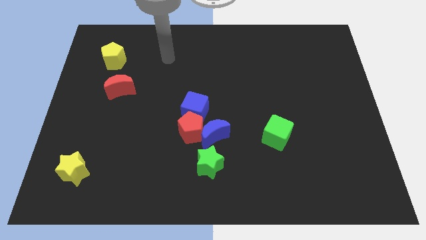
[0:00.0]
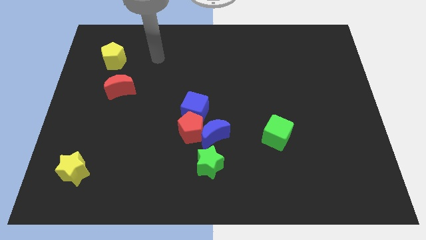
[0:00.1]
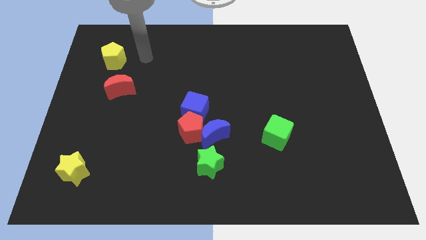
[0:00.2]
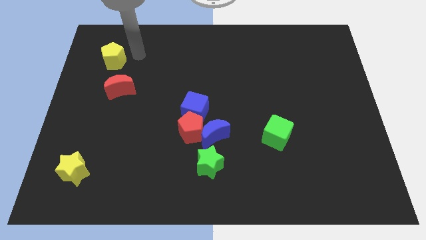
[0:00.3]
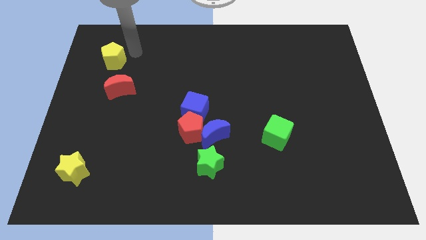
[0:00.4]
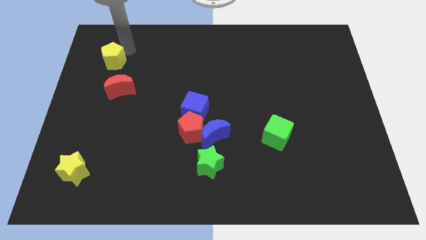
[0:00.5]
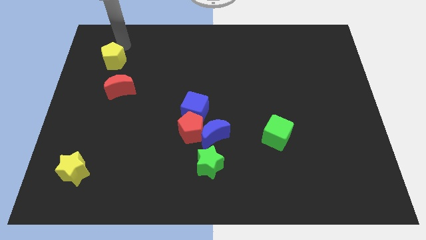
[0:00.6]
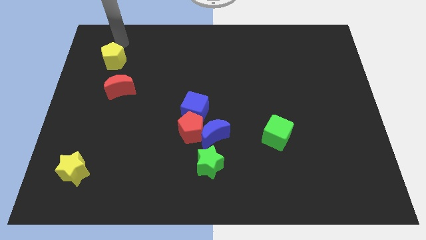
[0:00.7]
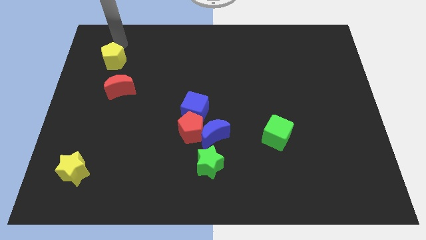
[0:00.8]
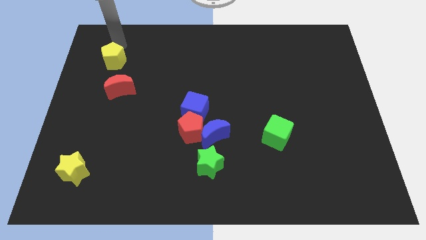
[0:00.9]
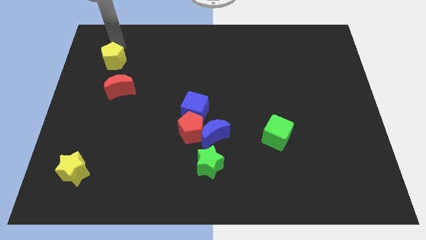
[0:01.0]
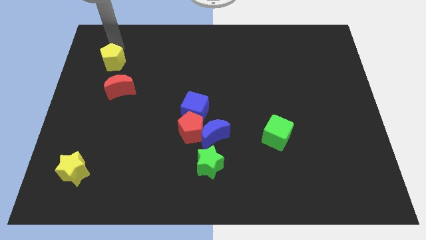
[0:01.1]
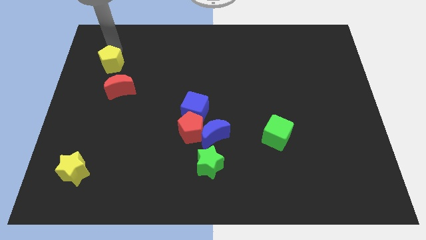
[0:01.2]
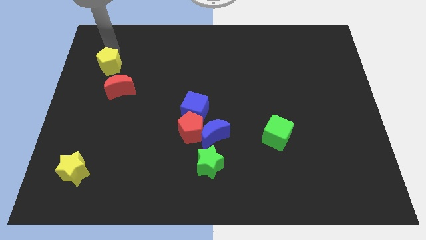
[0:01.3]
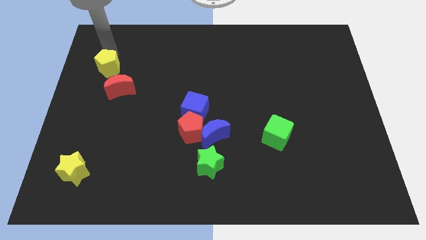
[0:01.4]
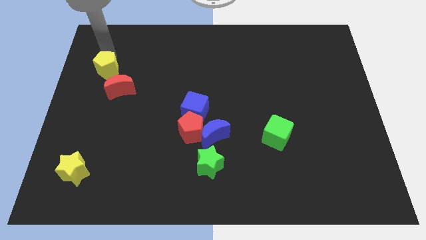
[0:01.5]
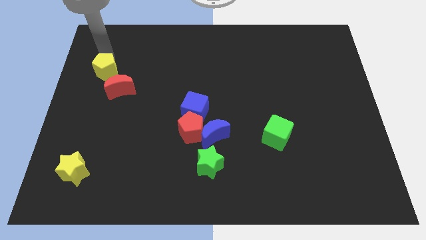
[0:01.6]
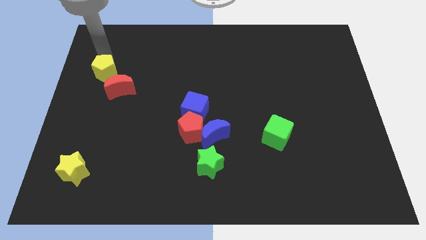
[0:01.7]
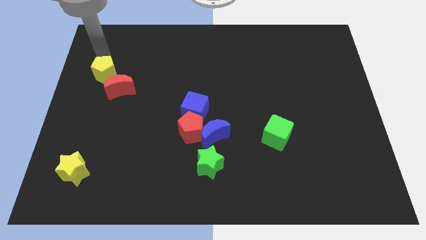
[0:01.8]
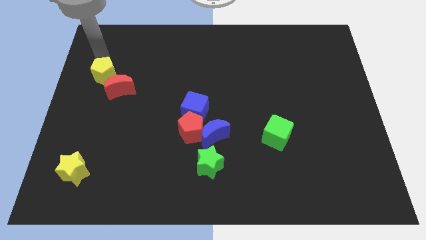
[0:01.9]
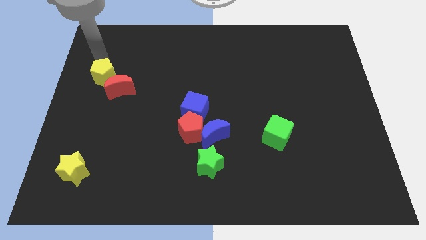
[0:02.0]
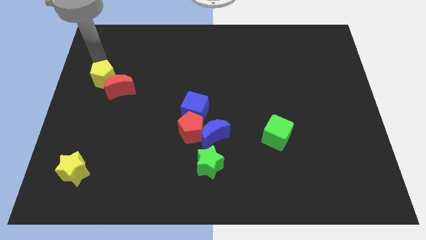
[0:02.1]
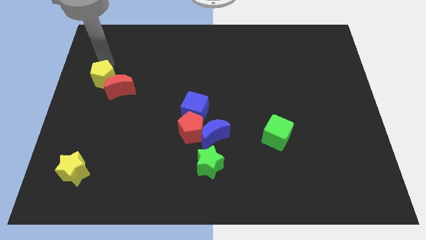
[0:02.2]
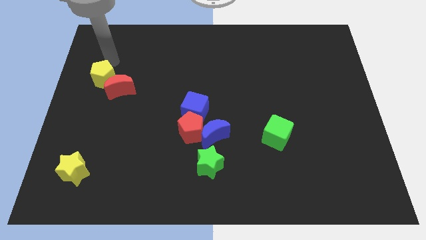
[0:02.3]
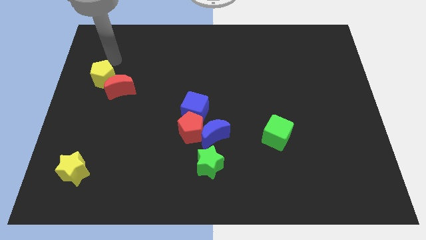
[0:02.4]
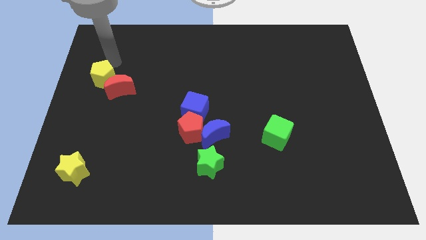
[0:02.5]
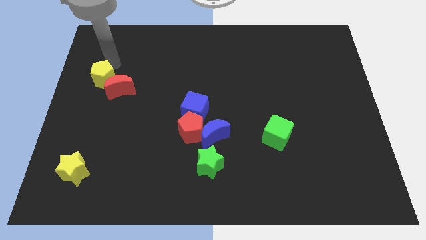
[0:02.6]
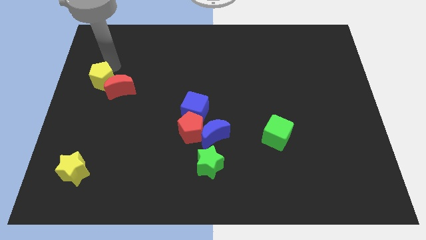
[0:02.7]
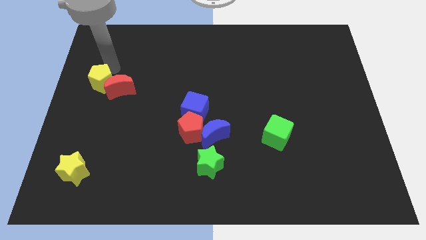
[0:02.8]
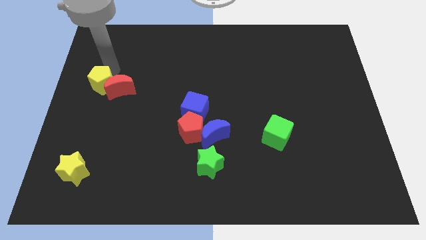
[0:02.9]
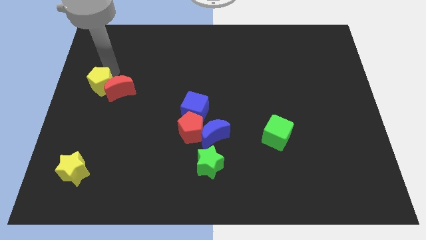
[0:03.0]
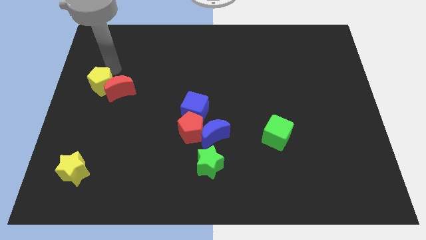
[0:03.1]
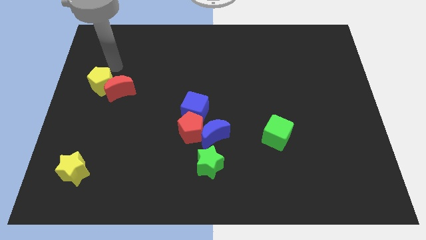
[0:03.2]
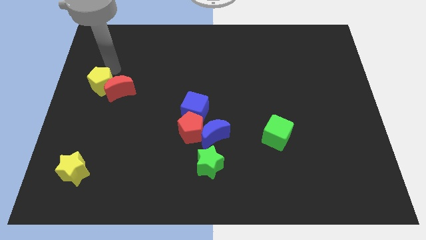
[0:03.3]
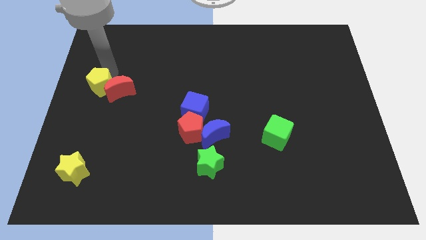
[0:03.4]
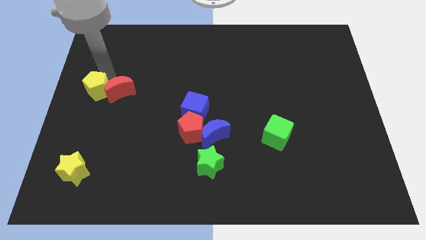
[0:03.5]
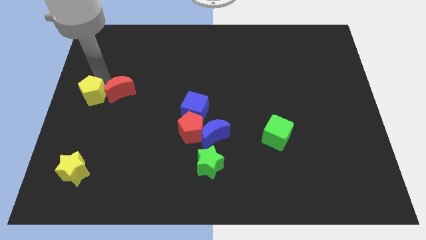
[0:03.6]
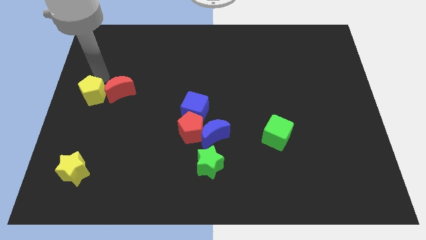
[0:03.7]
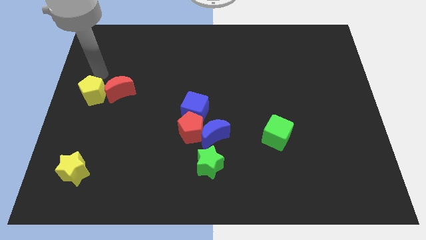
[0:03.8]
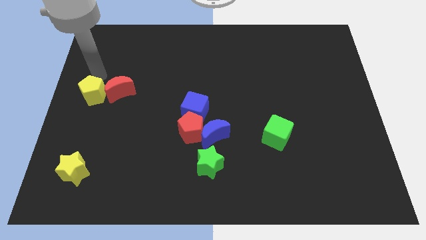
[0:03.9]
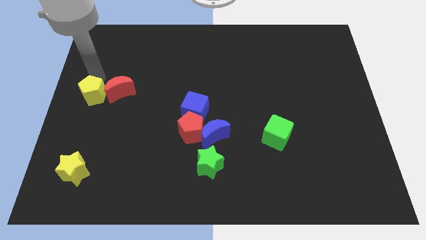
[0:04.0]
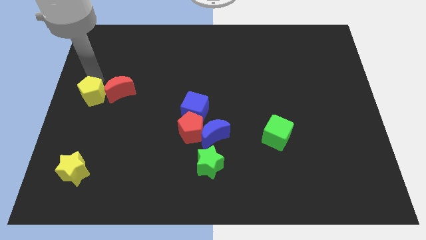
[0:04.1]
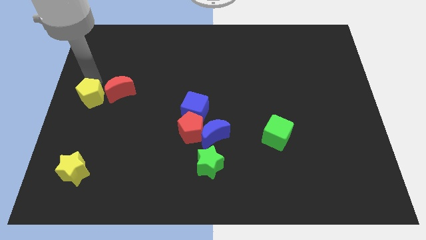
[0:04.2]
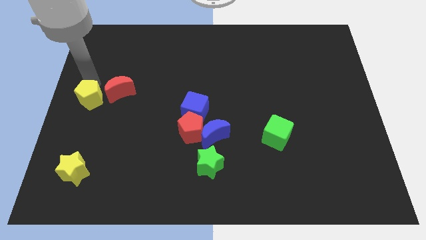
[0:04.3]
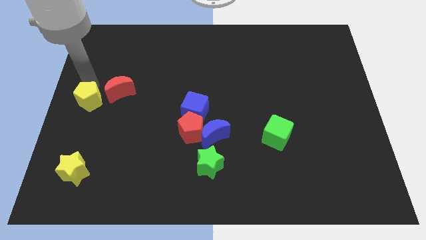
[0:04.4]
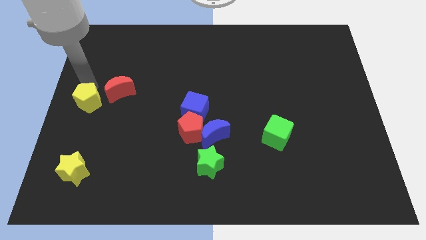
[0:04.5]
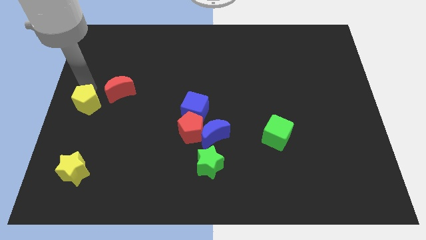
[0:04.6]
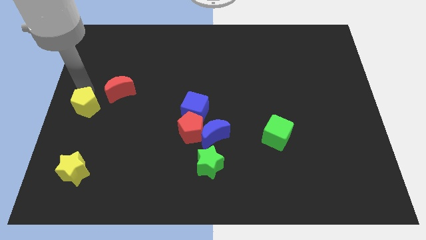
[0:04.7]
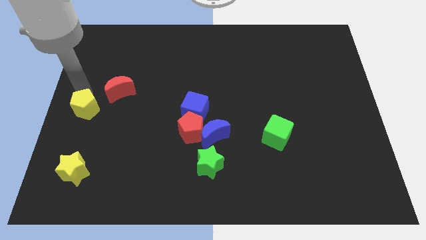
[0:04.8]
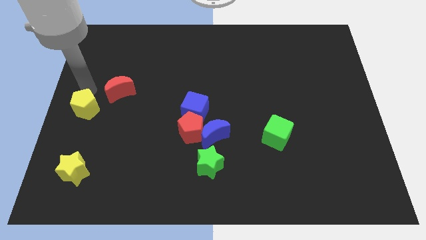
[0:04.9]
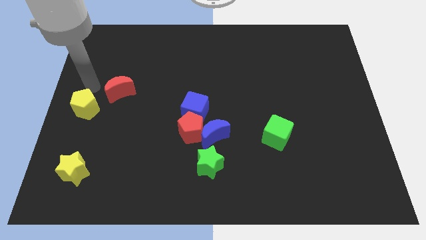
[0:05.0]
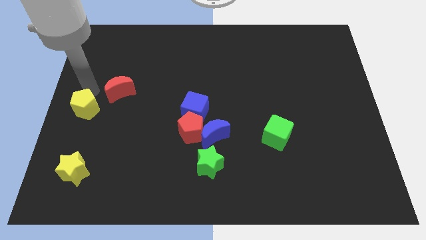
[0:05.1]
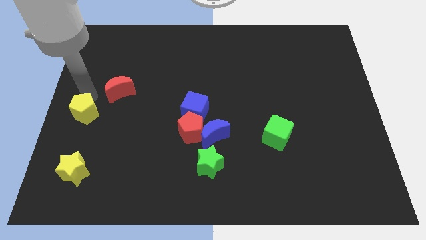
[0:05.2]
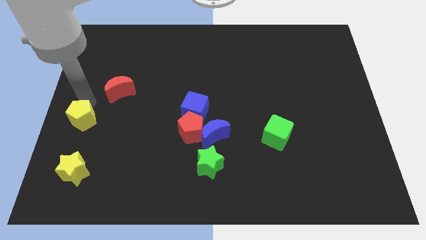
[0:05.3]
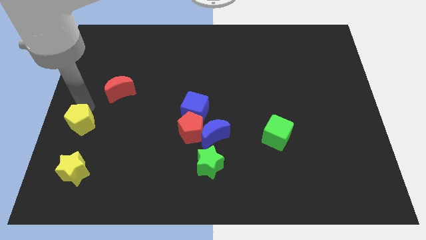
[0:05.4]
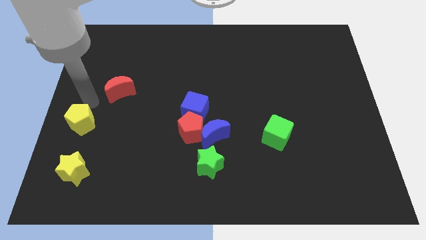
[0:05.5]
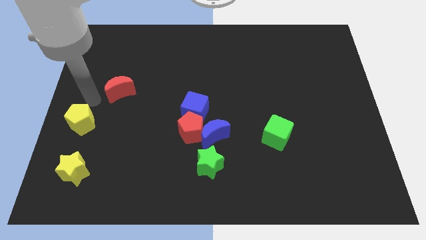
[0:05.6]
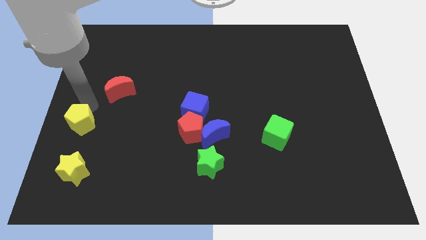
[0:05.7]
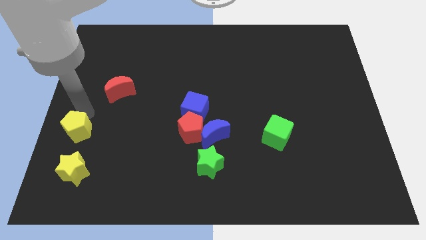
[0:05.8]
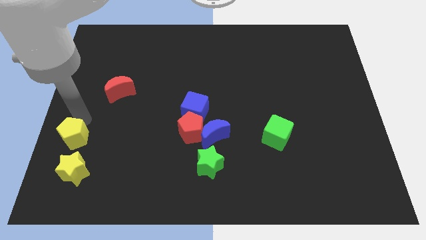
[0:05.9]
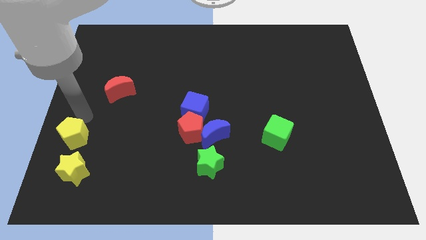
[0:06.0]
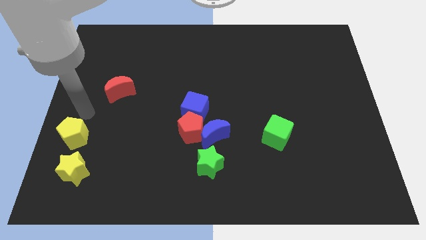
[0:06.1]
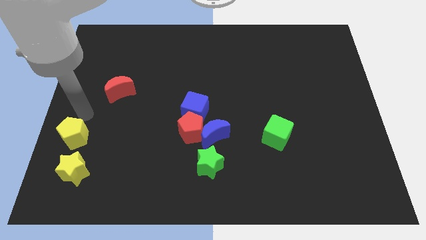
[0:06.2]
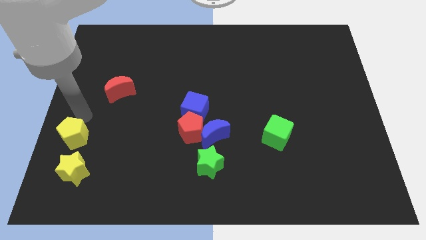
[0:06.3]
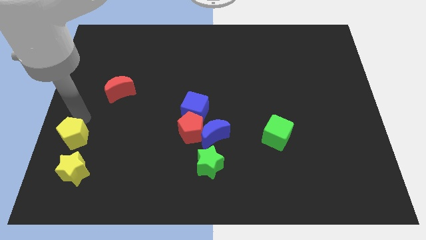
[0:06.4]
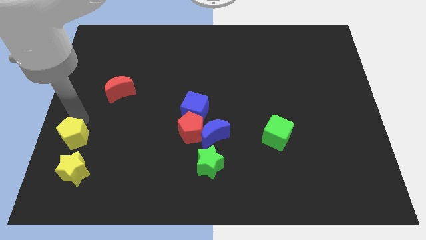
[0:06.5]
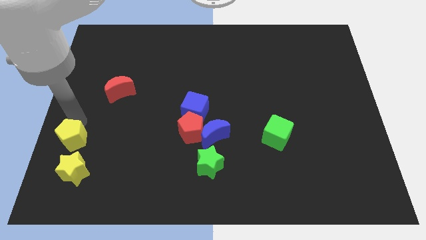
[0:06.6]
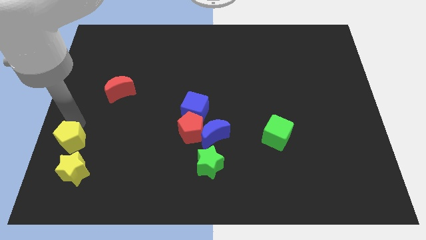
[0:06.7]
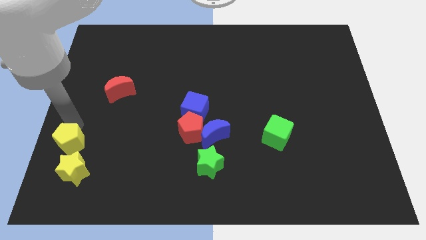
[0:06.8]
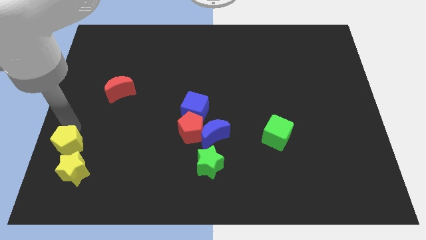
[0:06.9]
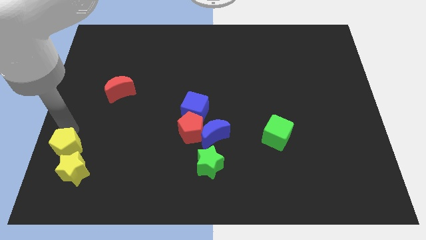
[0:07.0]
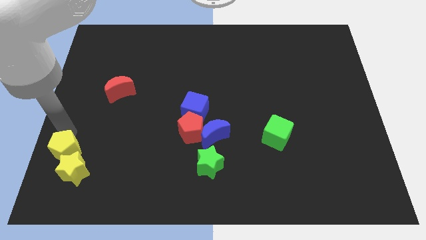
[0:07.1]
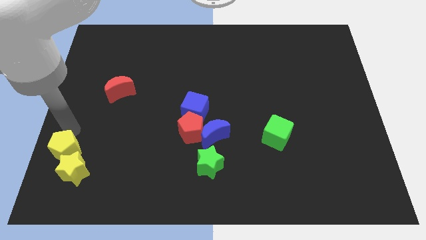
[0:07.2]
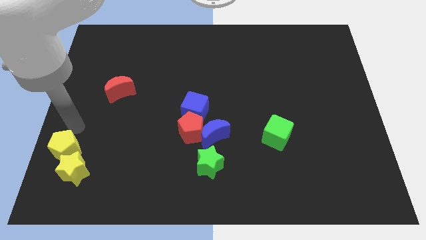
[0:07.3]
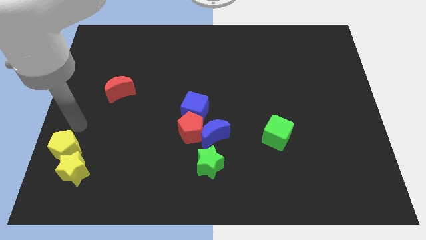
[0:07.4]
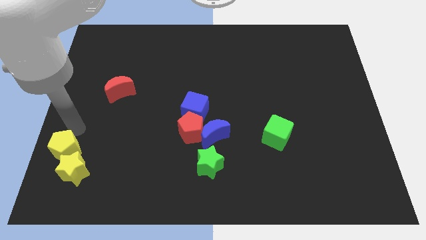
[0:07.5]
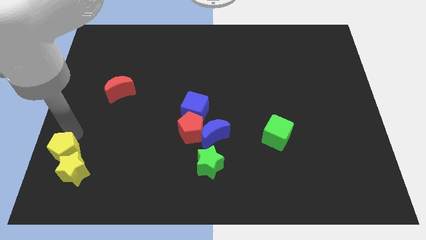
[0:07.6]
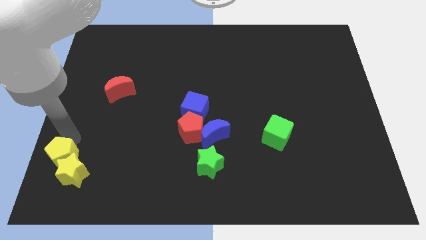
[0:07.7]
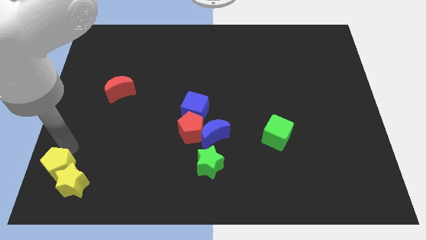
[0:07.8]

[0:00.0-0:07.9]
move the yellow pentagon to the lower left corner

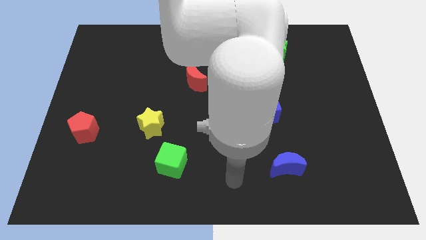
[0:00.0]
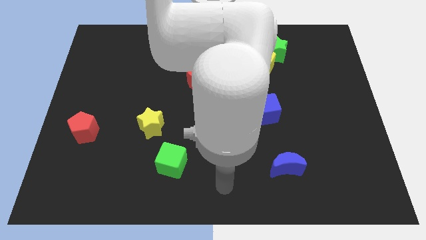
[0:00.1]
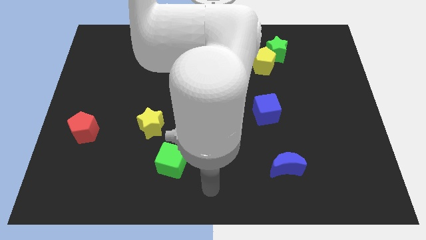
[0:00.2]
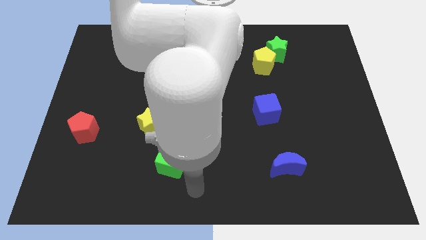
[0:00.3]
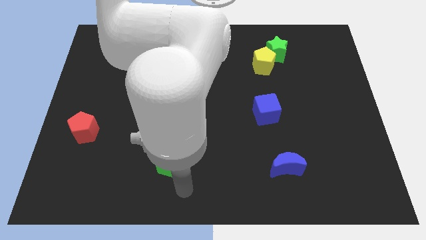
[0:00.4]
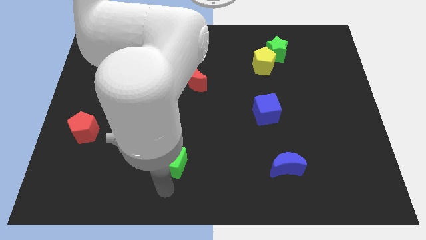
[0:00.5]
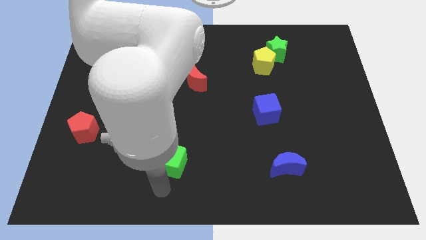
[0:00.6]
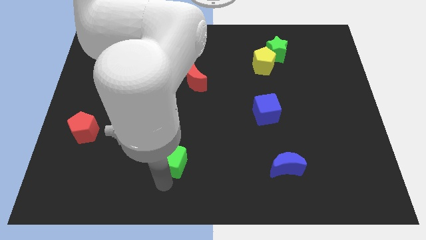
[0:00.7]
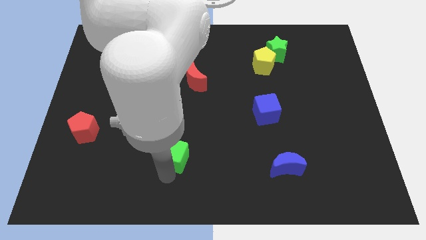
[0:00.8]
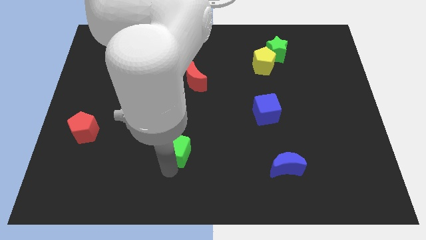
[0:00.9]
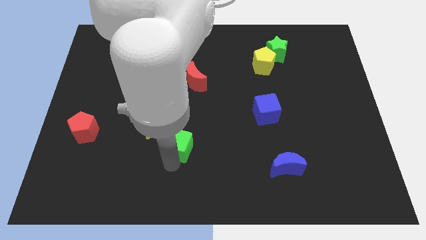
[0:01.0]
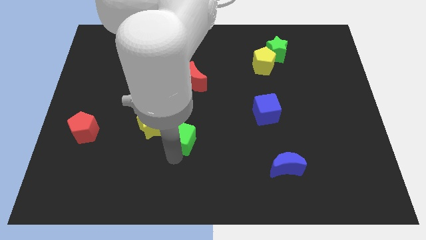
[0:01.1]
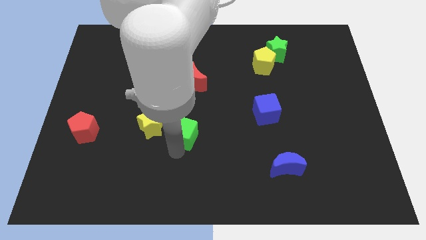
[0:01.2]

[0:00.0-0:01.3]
push the green cube to the middle
